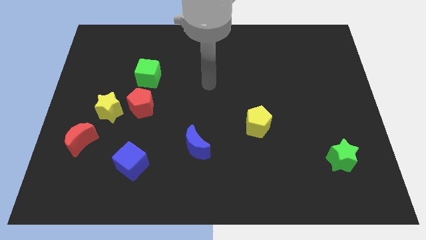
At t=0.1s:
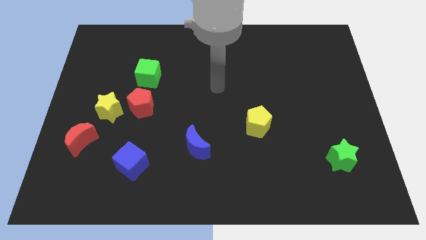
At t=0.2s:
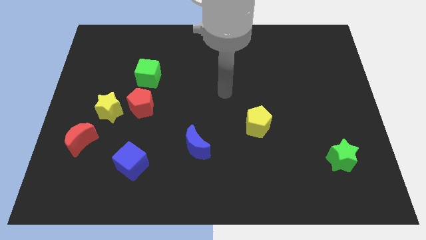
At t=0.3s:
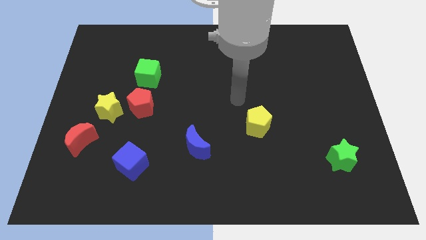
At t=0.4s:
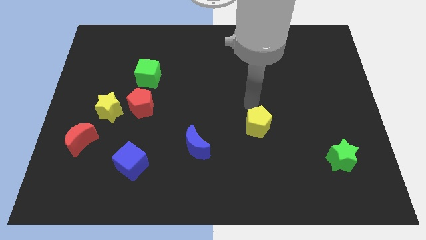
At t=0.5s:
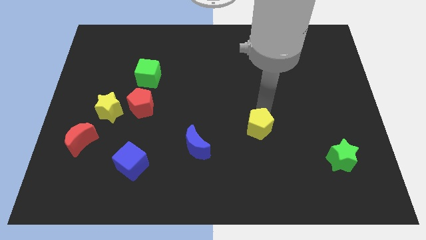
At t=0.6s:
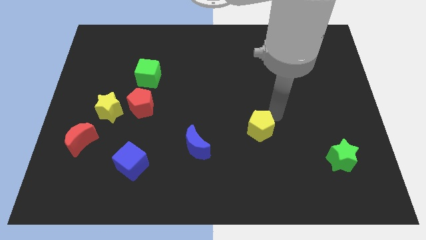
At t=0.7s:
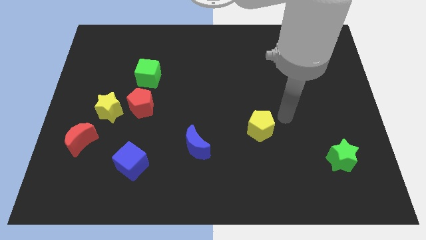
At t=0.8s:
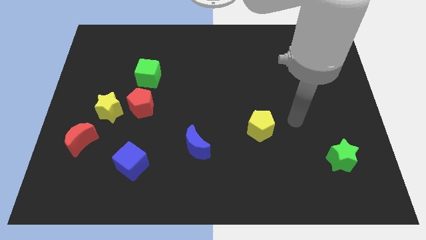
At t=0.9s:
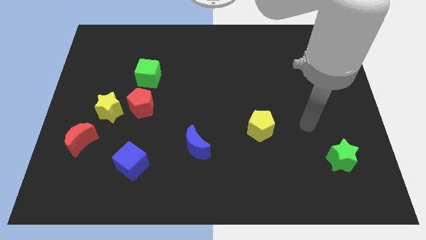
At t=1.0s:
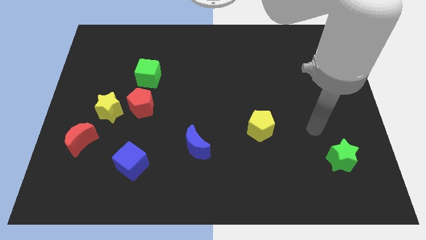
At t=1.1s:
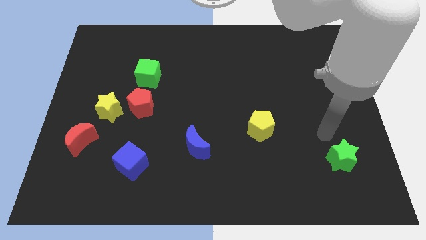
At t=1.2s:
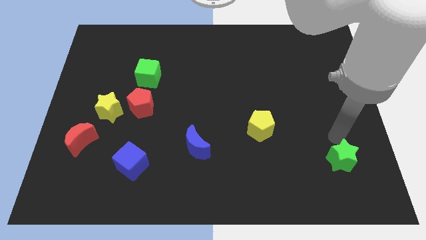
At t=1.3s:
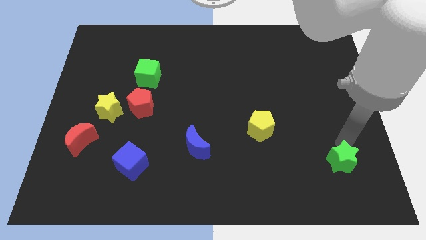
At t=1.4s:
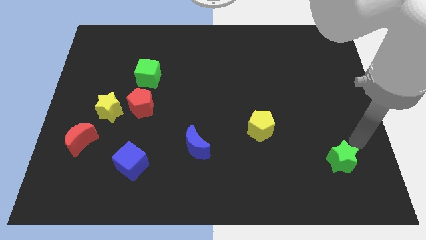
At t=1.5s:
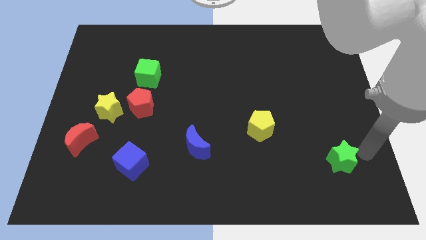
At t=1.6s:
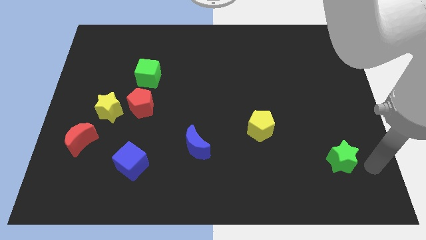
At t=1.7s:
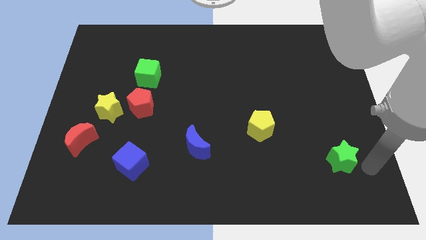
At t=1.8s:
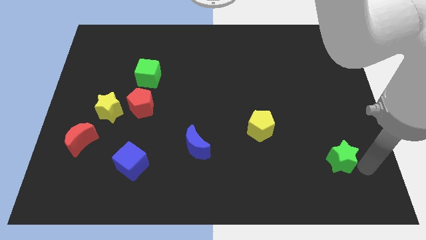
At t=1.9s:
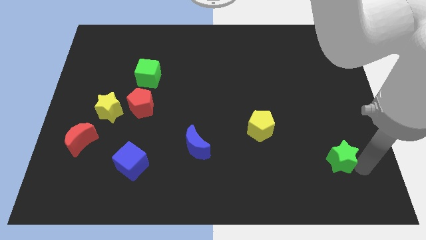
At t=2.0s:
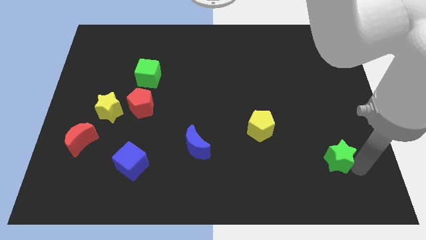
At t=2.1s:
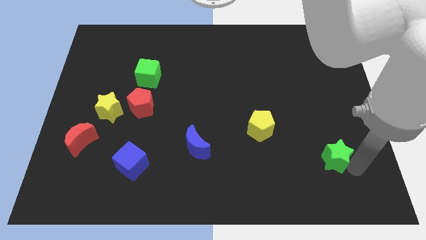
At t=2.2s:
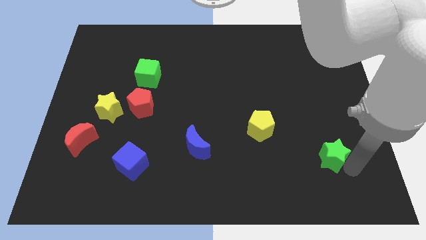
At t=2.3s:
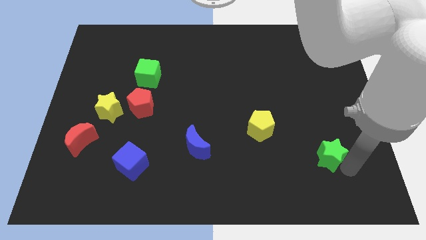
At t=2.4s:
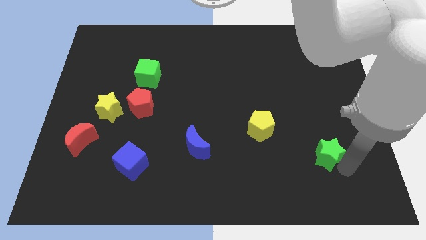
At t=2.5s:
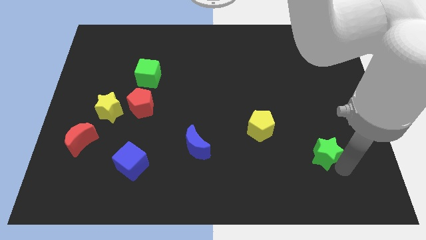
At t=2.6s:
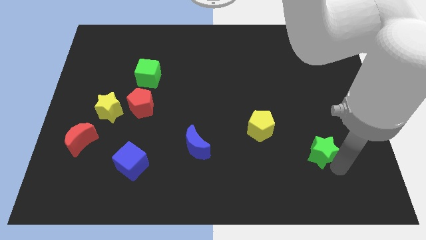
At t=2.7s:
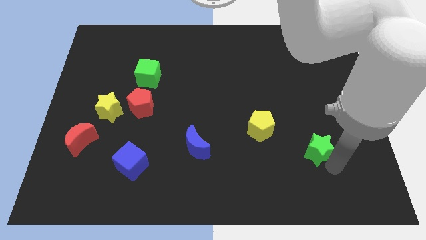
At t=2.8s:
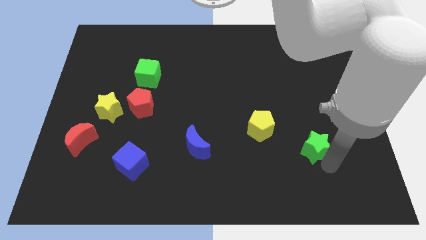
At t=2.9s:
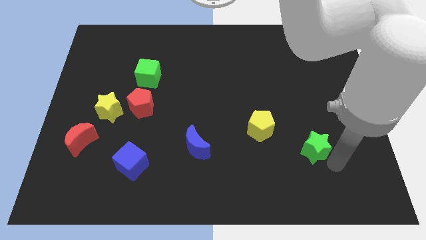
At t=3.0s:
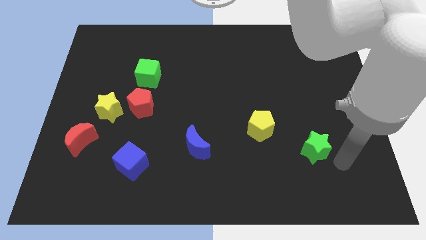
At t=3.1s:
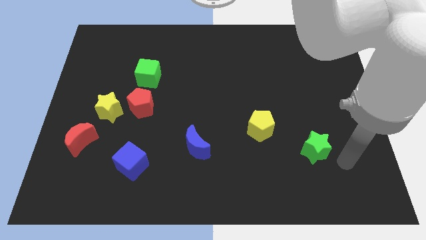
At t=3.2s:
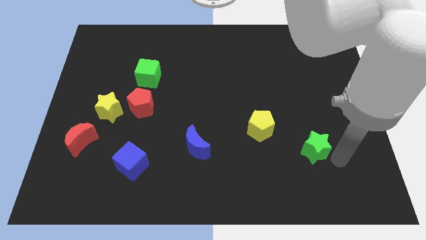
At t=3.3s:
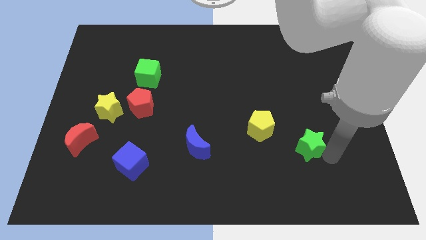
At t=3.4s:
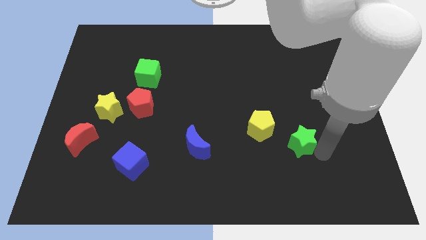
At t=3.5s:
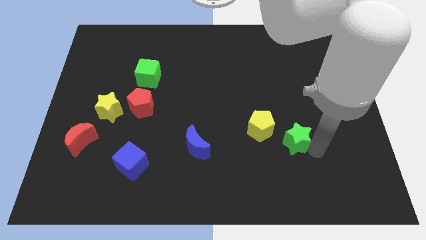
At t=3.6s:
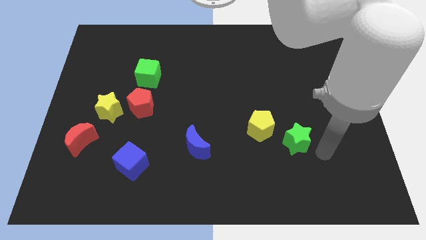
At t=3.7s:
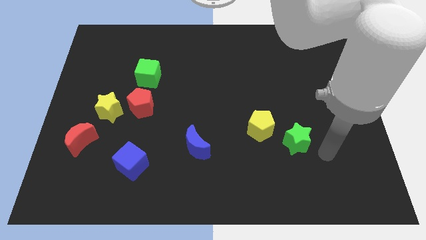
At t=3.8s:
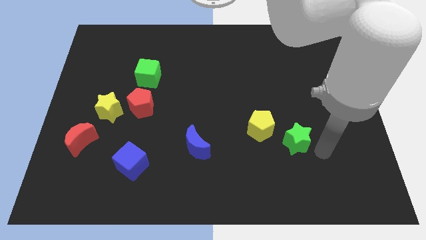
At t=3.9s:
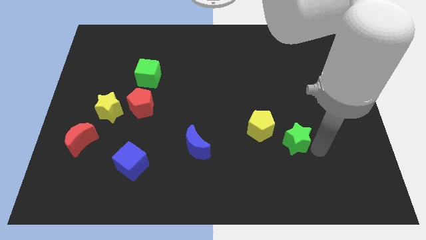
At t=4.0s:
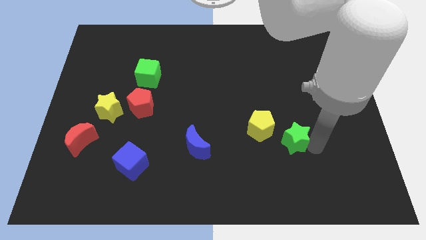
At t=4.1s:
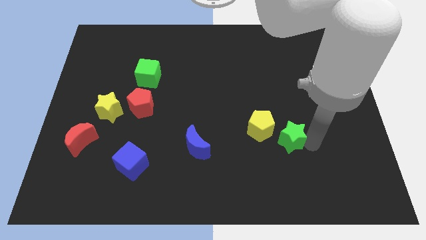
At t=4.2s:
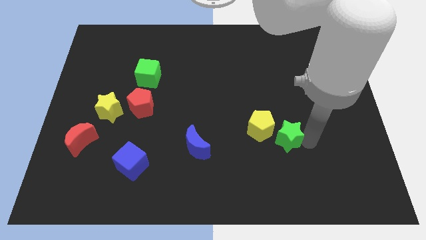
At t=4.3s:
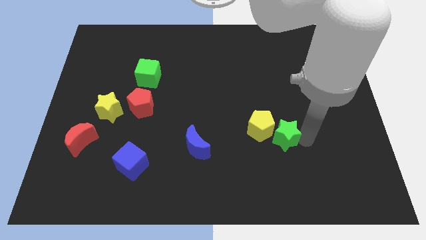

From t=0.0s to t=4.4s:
put the green star next to the yellow pentagon

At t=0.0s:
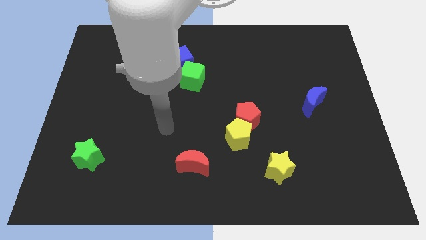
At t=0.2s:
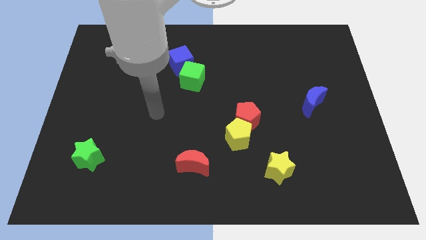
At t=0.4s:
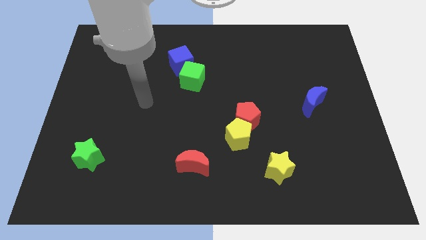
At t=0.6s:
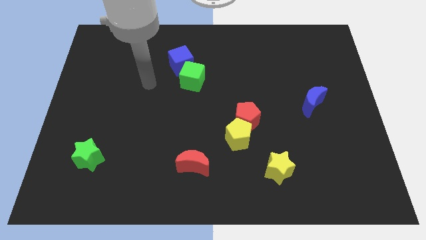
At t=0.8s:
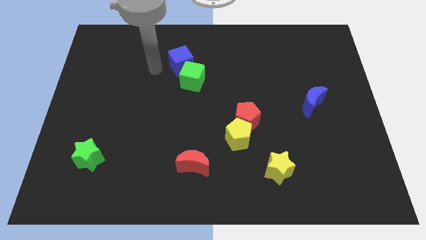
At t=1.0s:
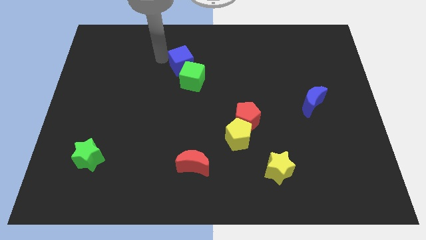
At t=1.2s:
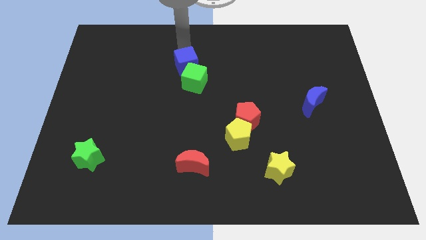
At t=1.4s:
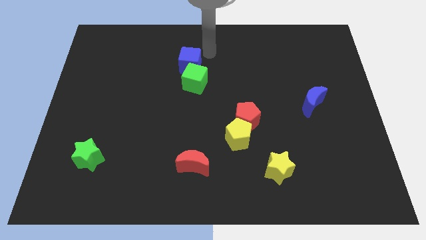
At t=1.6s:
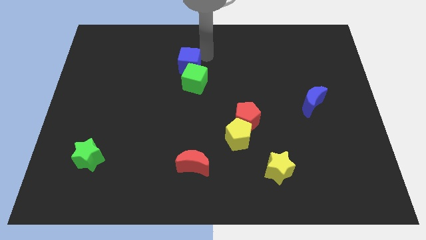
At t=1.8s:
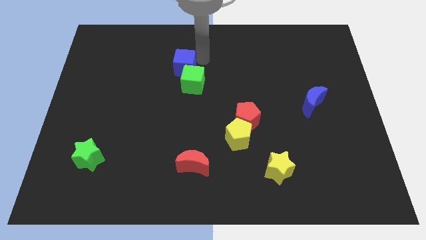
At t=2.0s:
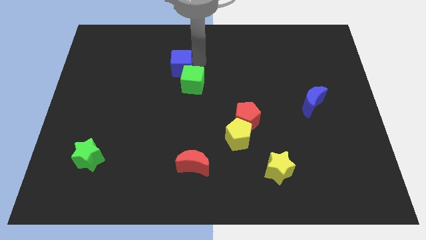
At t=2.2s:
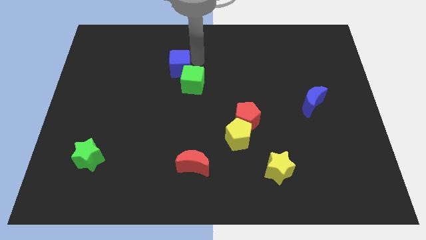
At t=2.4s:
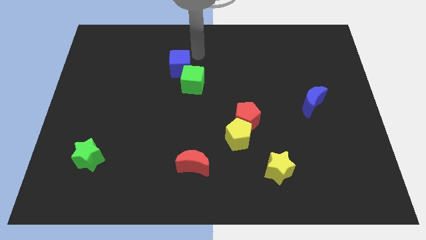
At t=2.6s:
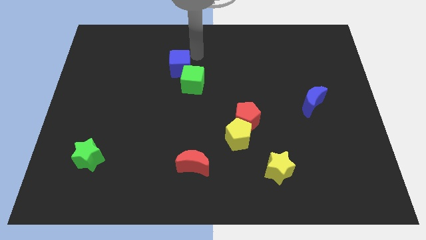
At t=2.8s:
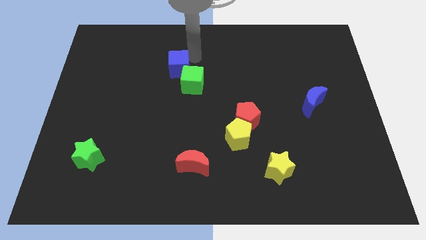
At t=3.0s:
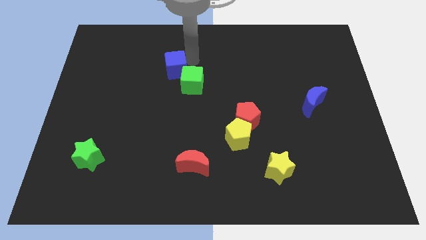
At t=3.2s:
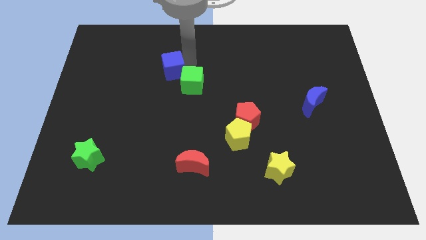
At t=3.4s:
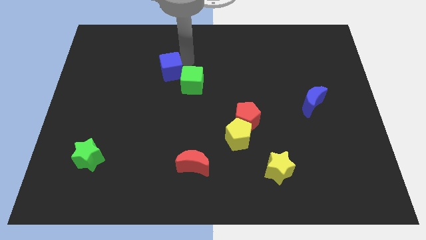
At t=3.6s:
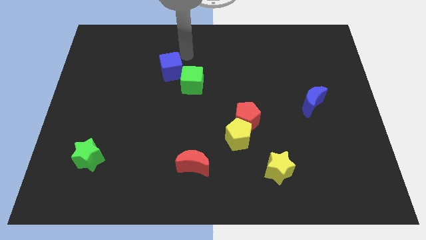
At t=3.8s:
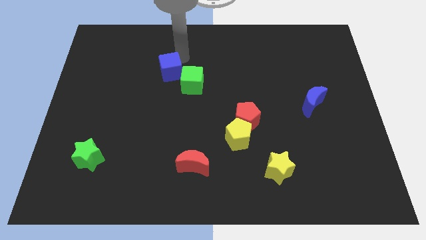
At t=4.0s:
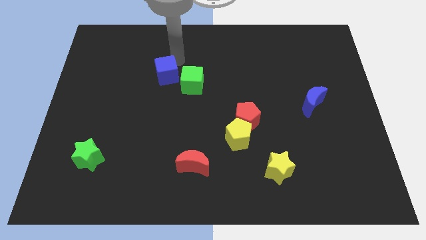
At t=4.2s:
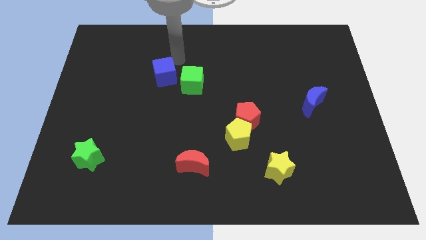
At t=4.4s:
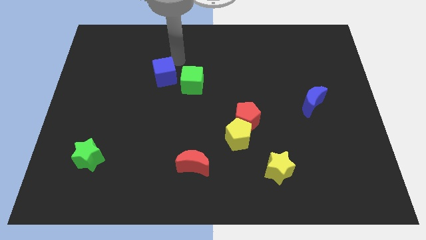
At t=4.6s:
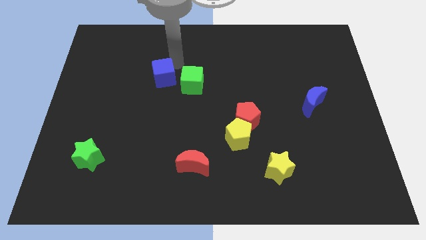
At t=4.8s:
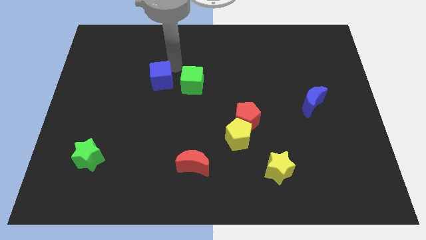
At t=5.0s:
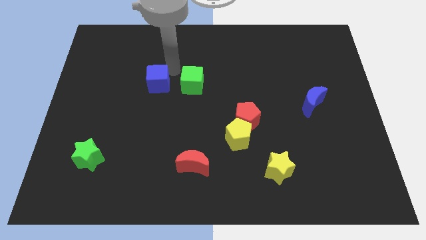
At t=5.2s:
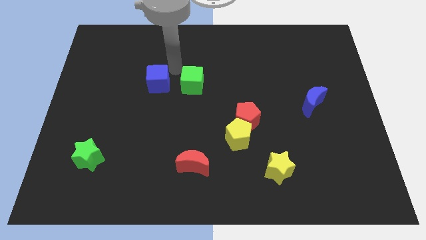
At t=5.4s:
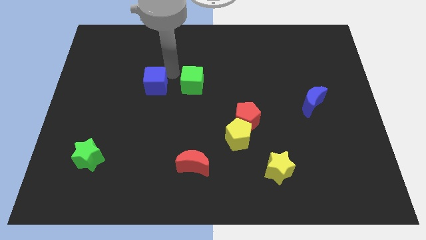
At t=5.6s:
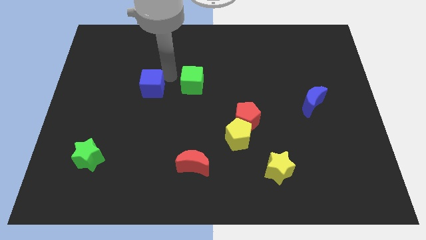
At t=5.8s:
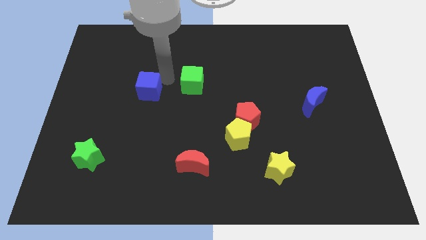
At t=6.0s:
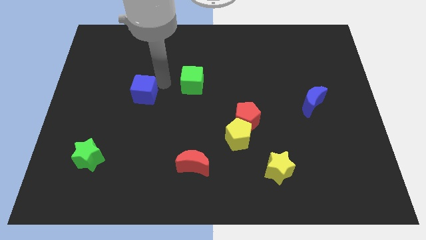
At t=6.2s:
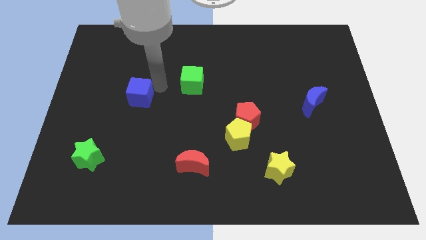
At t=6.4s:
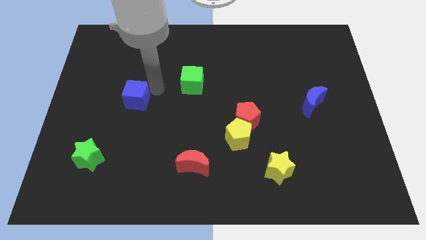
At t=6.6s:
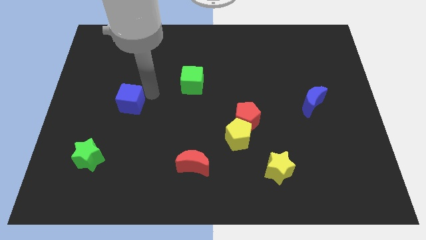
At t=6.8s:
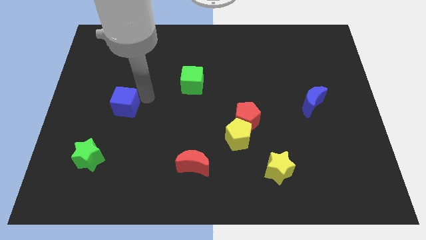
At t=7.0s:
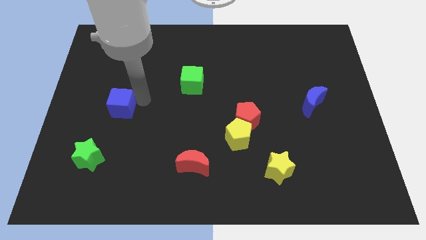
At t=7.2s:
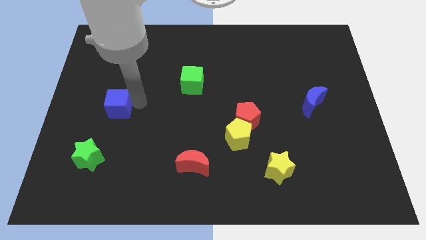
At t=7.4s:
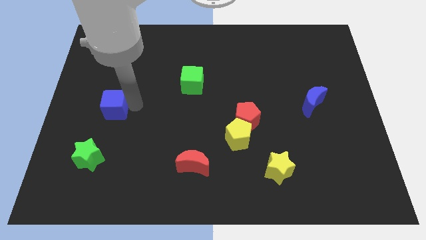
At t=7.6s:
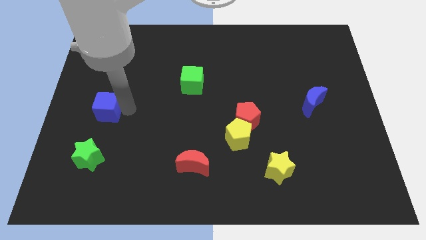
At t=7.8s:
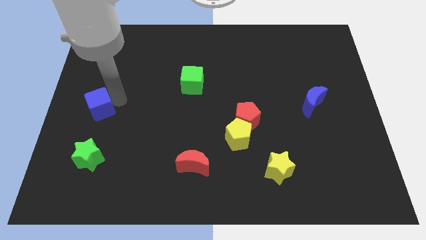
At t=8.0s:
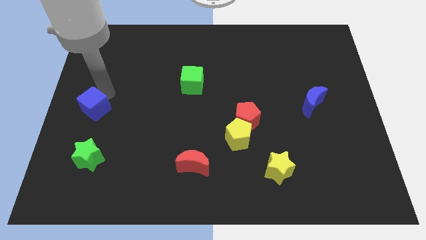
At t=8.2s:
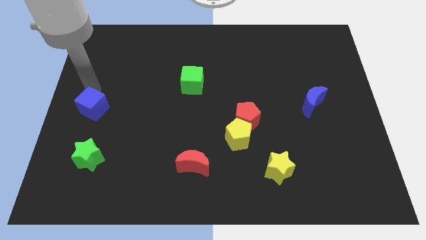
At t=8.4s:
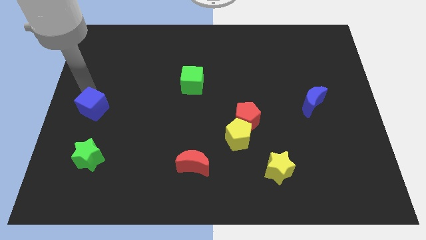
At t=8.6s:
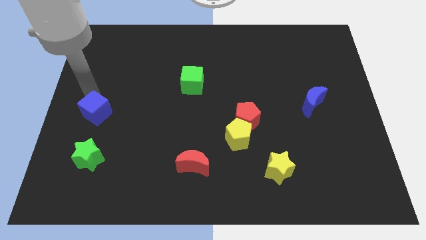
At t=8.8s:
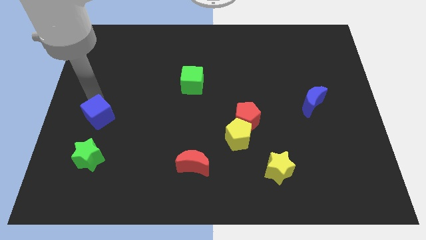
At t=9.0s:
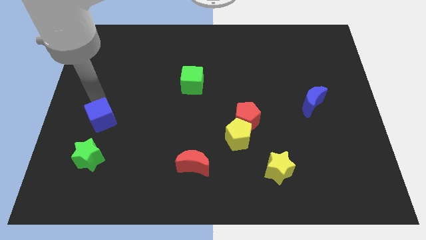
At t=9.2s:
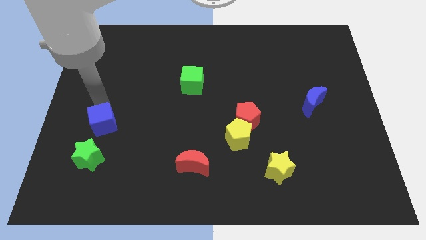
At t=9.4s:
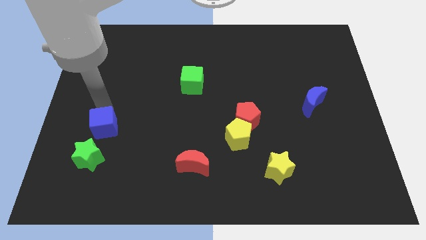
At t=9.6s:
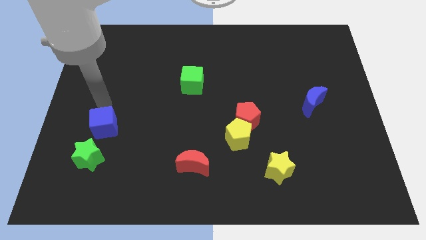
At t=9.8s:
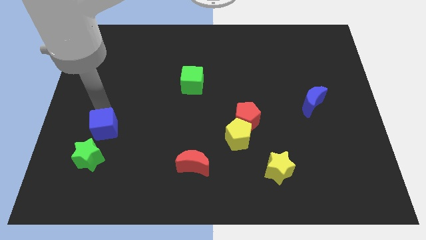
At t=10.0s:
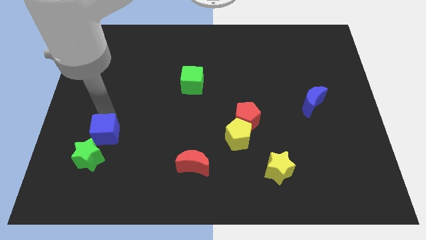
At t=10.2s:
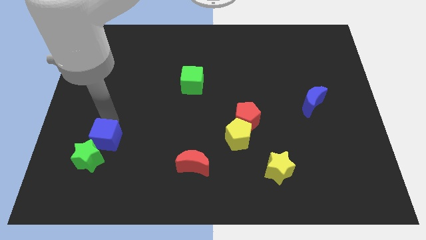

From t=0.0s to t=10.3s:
put the blue cube towards the green star
